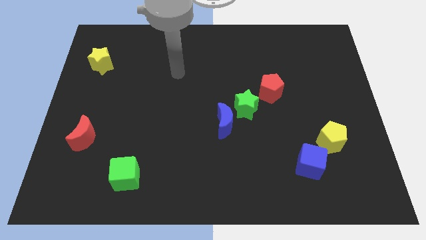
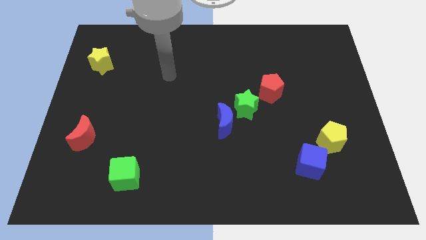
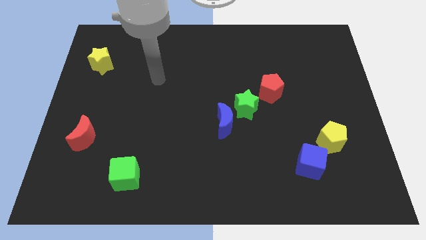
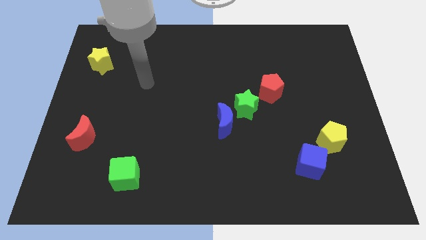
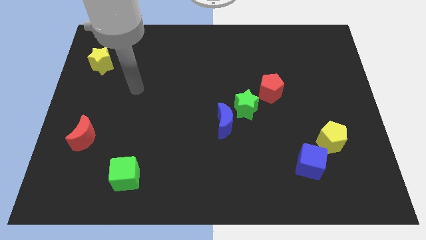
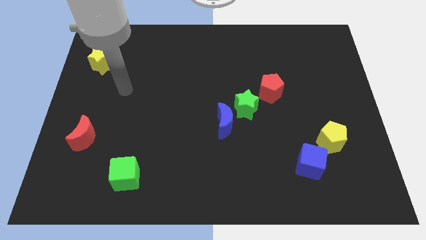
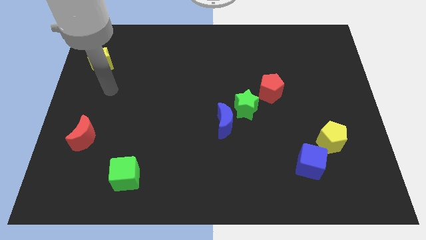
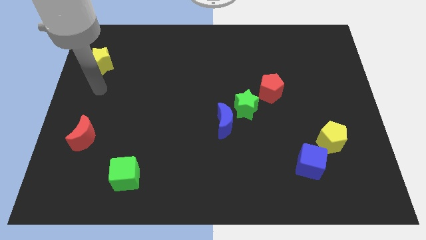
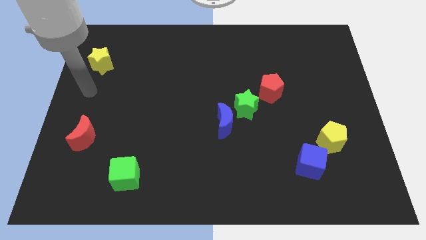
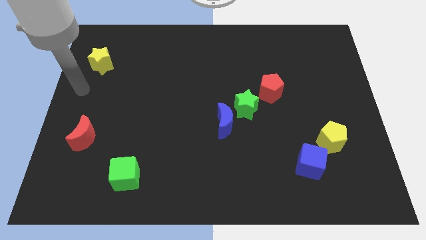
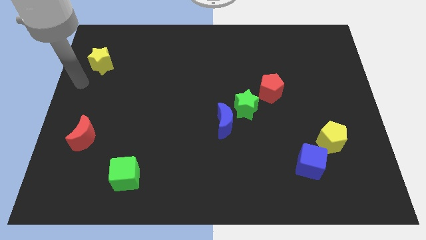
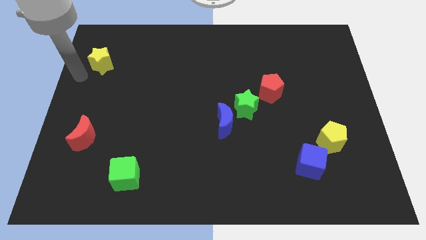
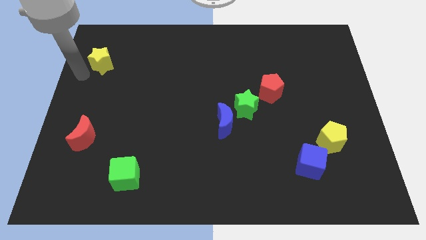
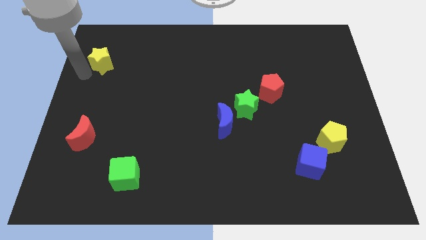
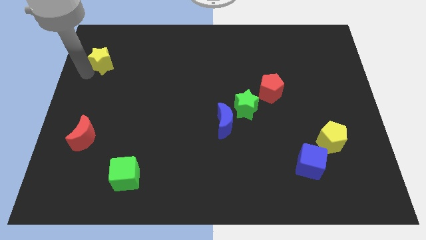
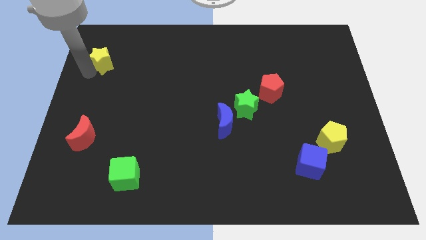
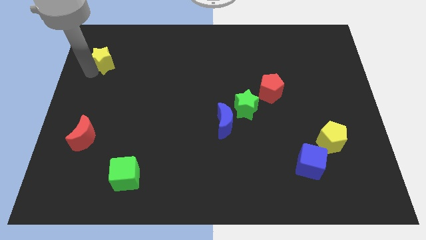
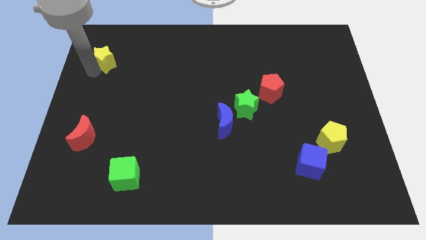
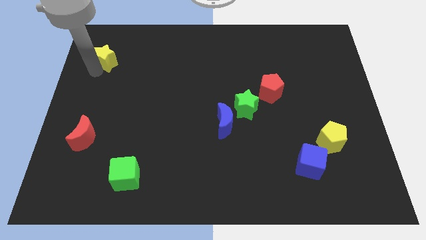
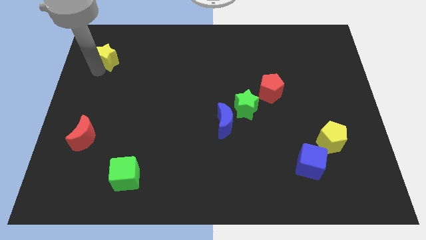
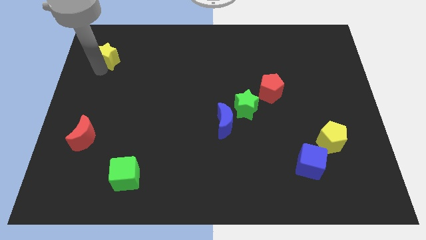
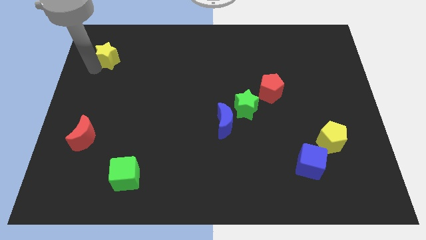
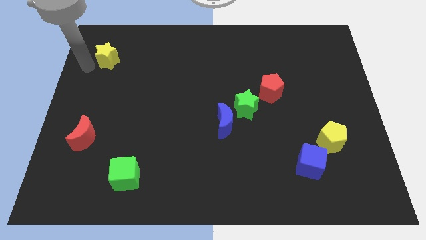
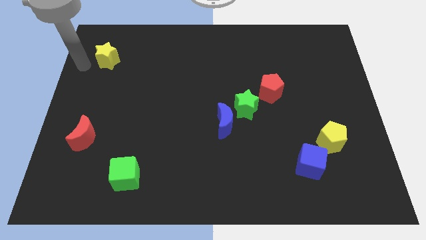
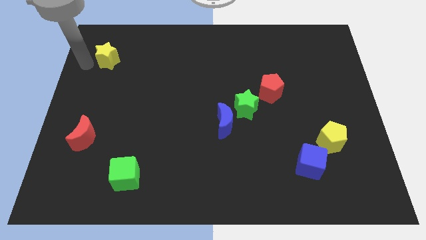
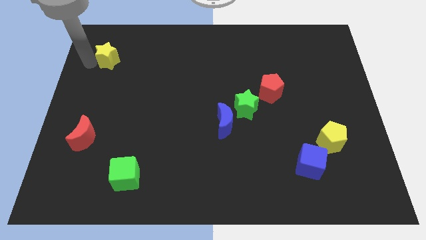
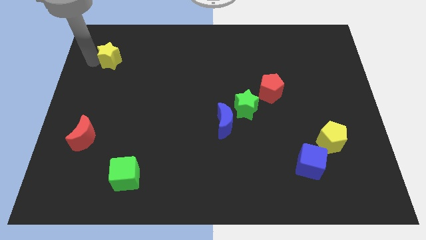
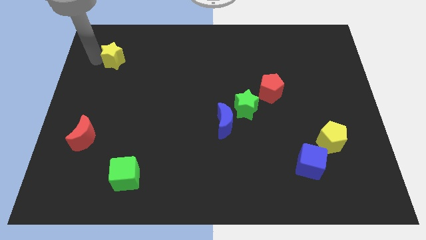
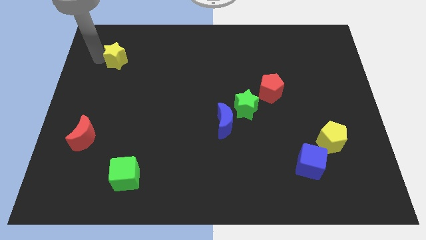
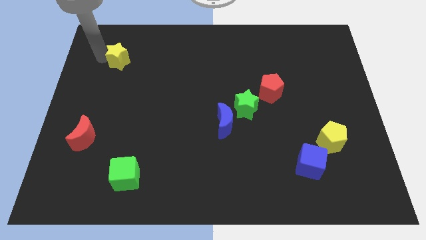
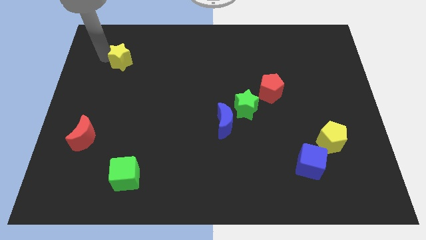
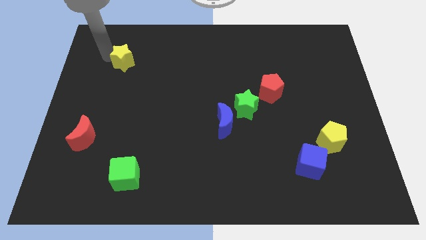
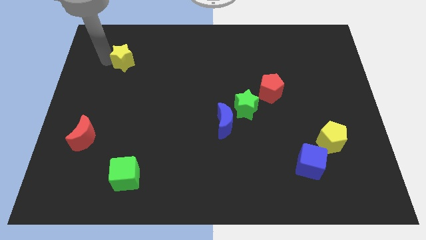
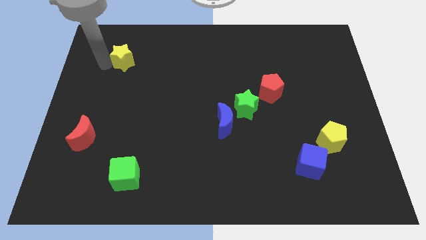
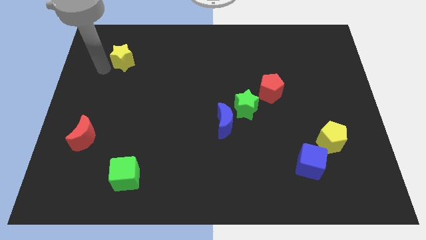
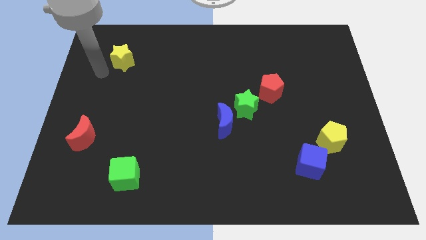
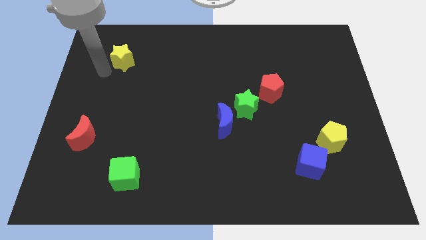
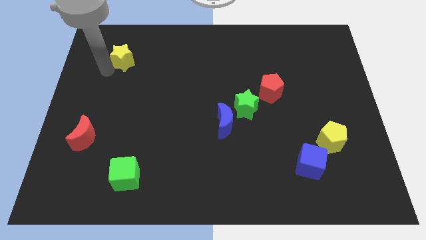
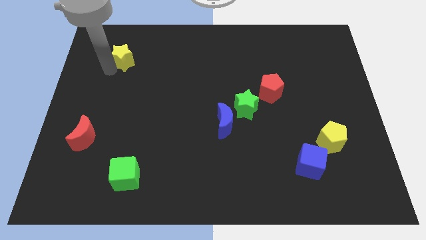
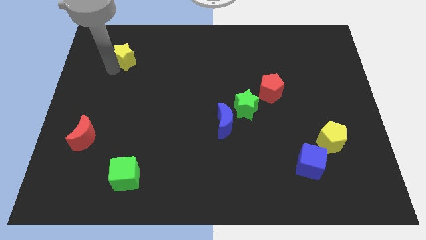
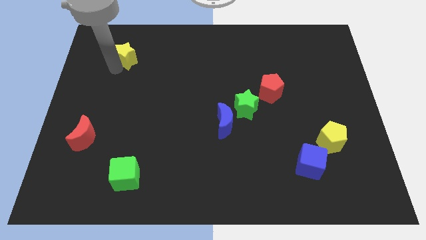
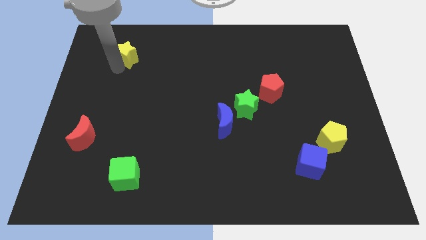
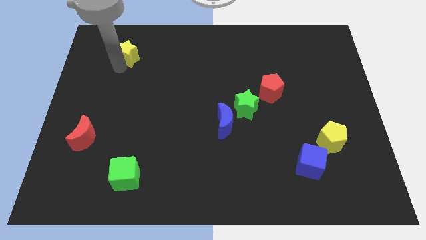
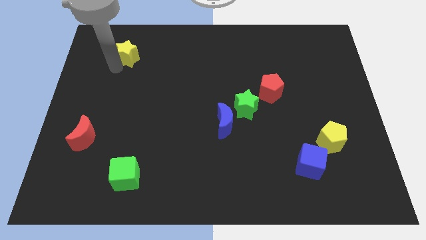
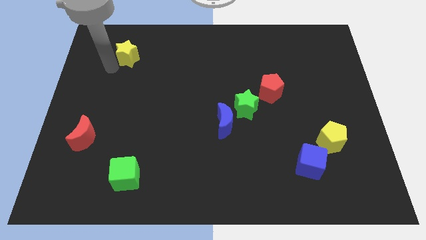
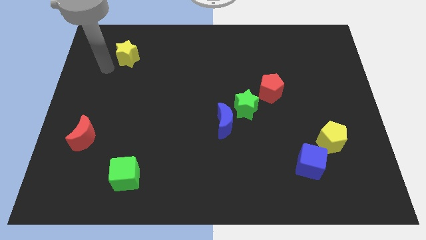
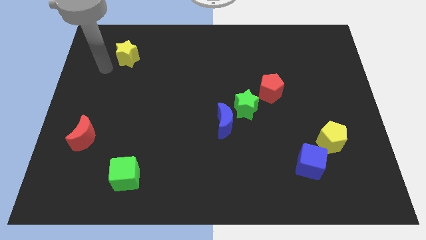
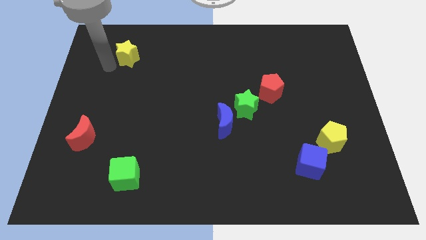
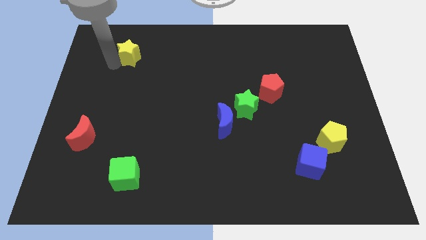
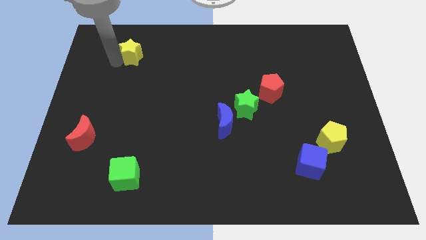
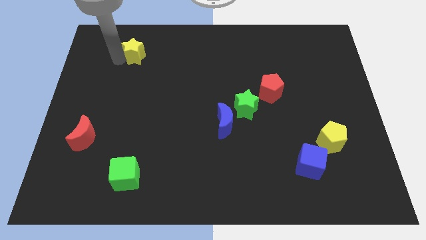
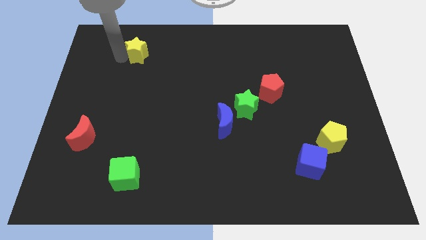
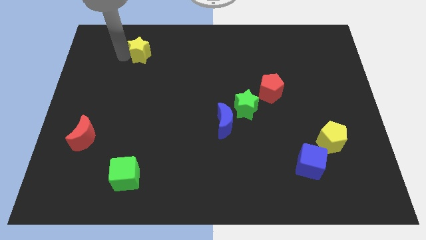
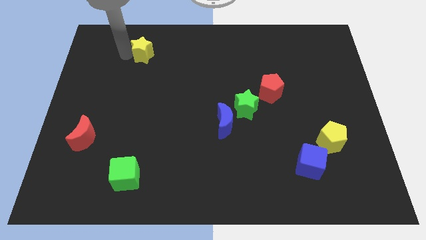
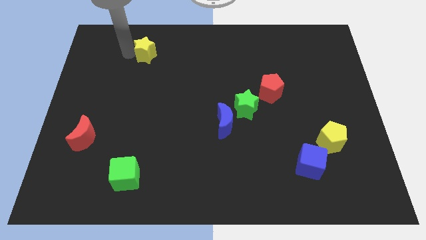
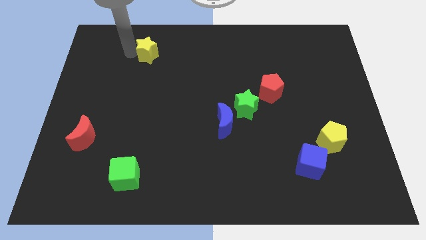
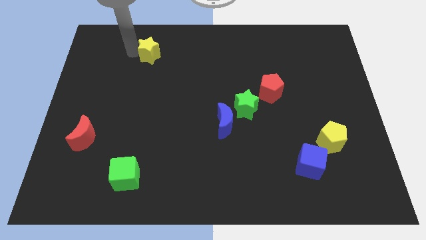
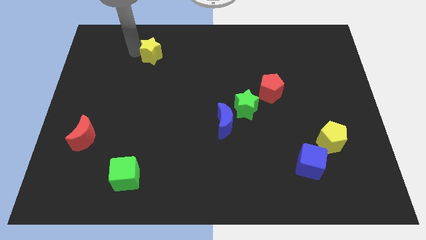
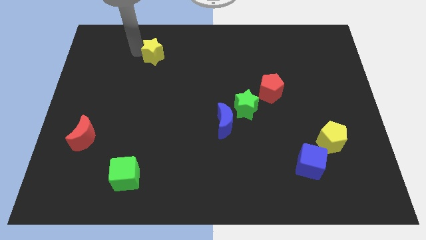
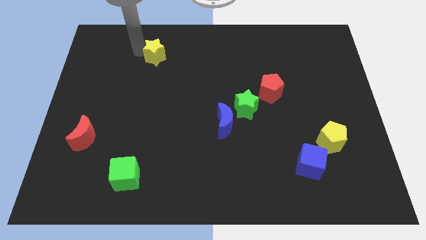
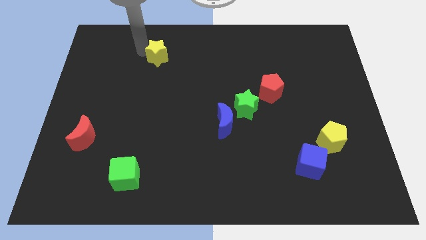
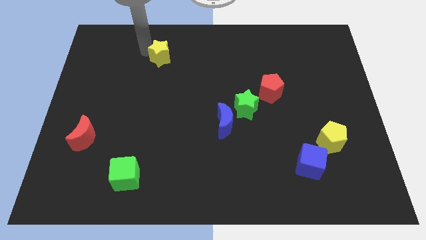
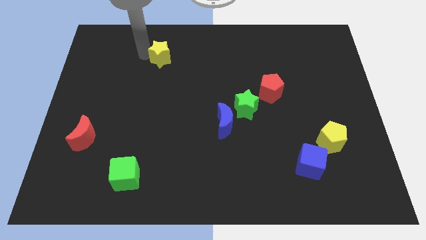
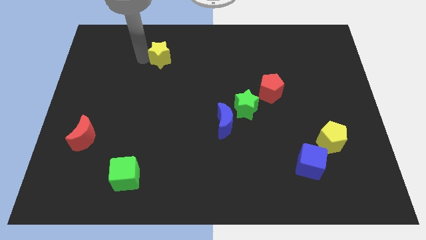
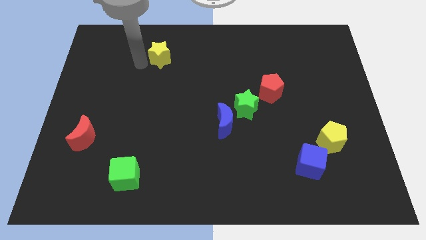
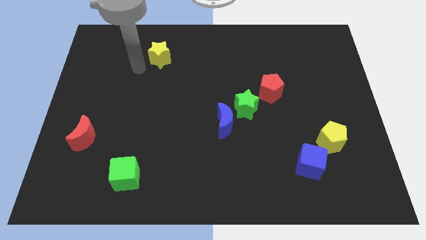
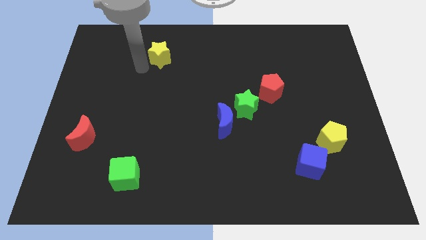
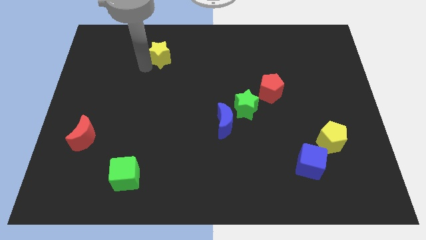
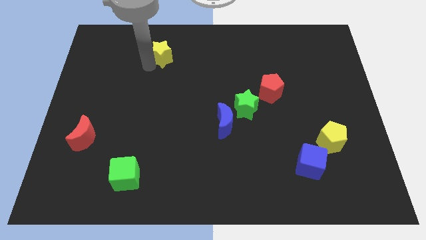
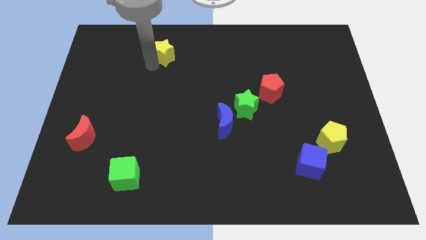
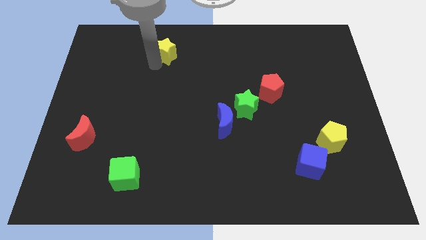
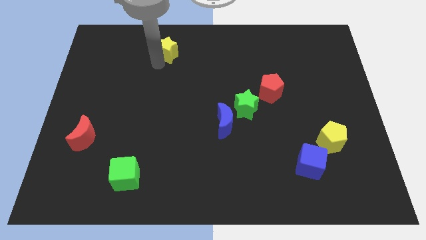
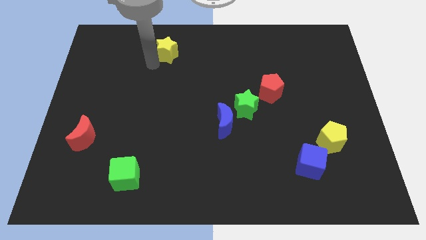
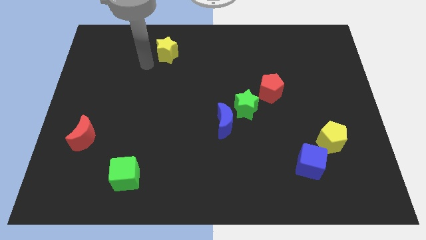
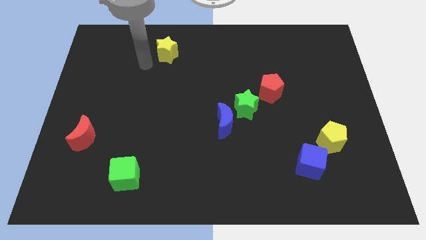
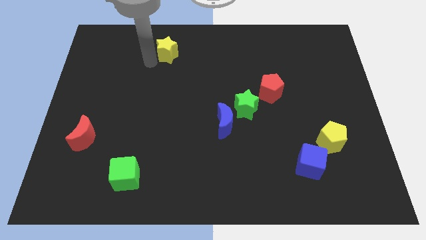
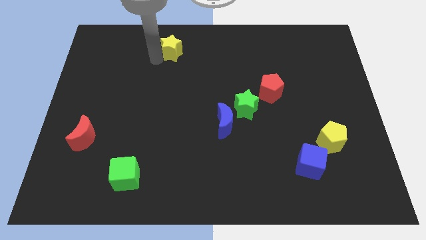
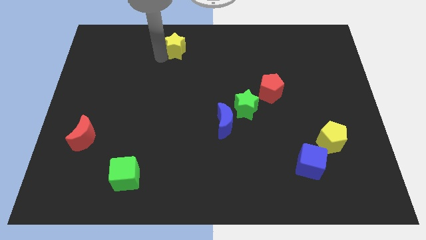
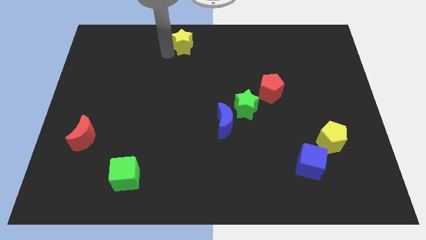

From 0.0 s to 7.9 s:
push the yellow star to the top side
